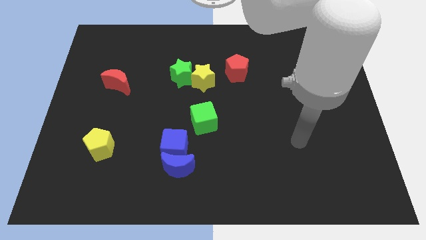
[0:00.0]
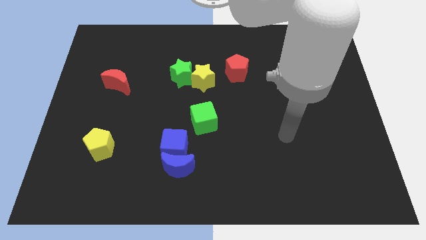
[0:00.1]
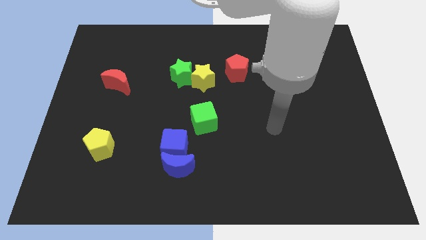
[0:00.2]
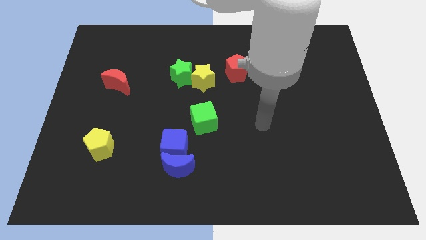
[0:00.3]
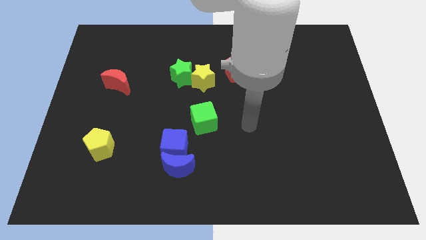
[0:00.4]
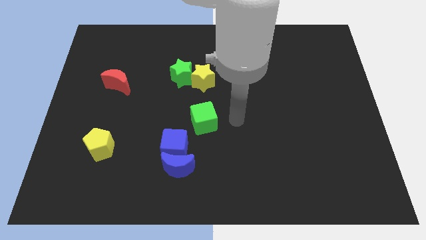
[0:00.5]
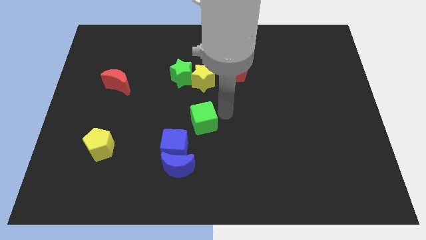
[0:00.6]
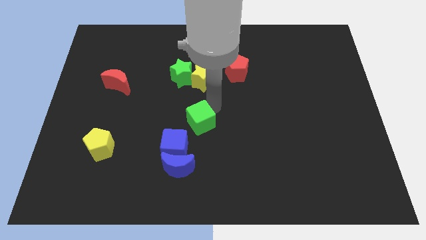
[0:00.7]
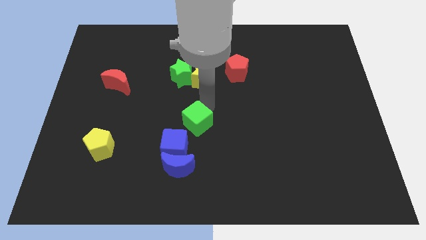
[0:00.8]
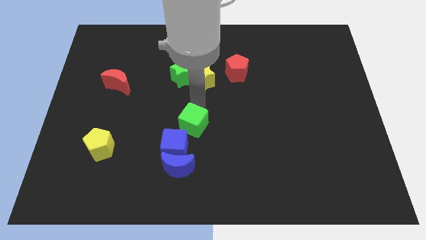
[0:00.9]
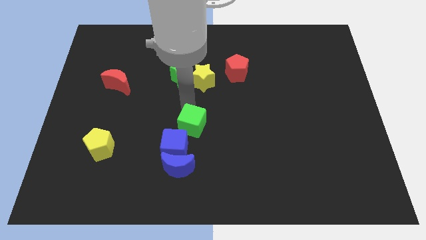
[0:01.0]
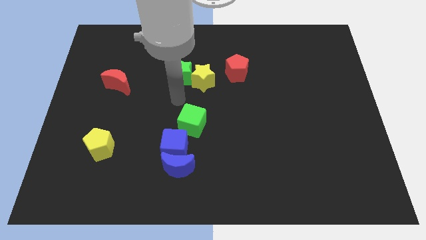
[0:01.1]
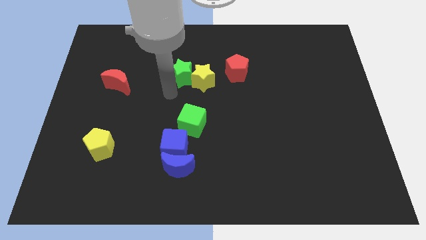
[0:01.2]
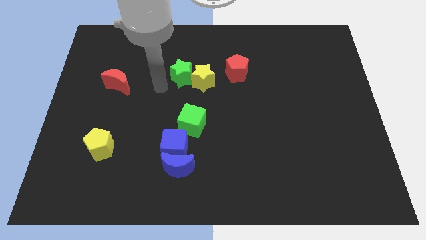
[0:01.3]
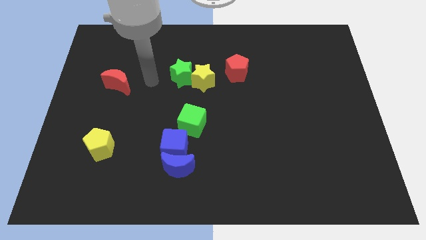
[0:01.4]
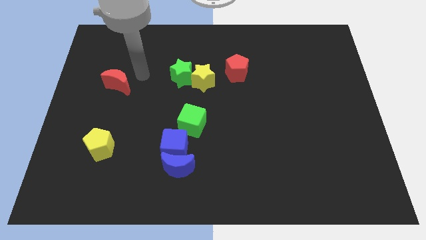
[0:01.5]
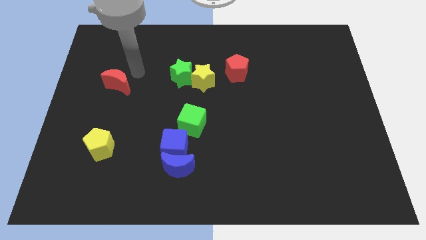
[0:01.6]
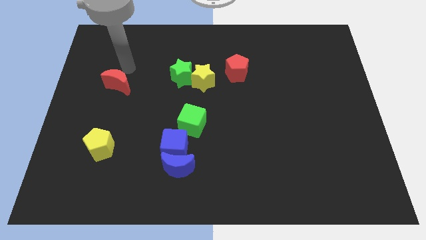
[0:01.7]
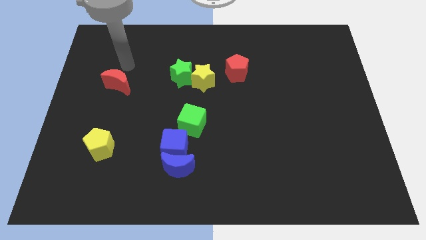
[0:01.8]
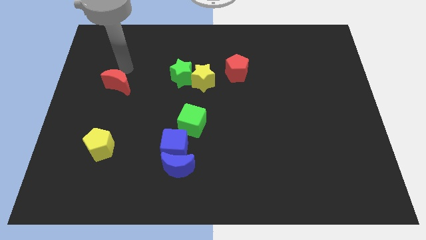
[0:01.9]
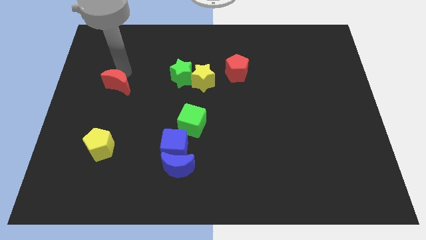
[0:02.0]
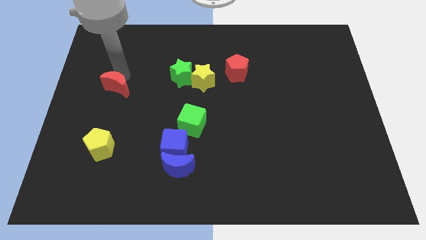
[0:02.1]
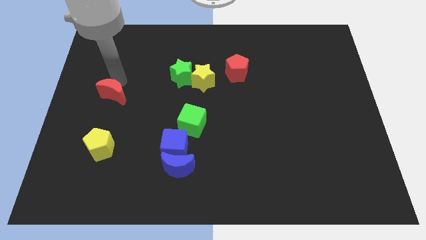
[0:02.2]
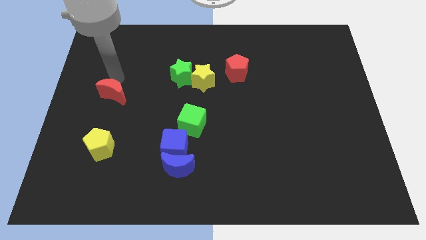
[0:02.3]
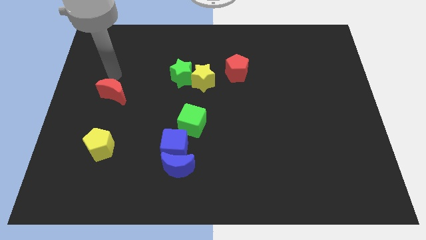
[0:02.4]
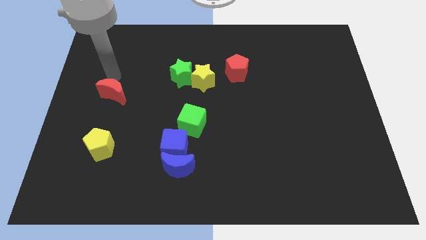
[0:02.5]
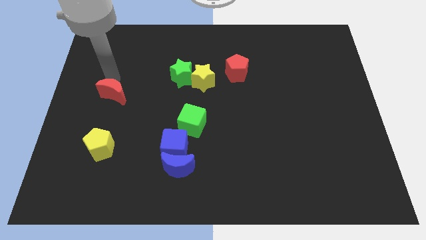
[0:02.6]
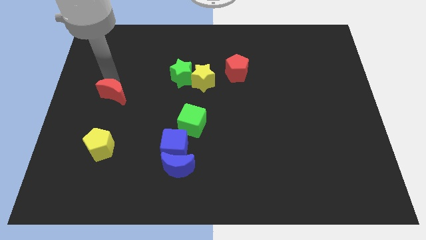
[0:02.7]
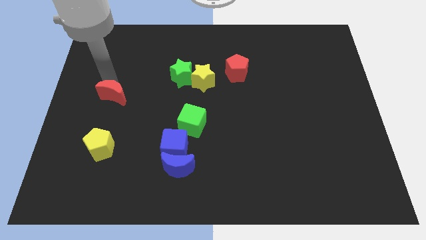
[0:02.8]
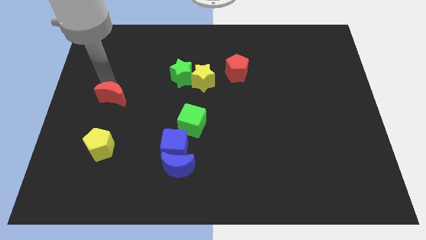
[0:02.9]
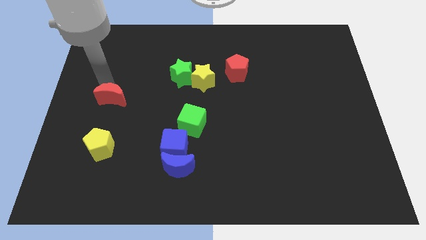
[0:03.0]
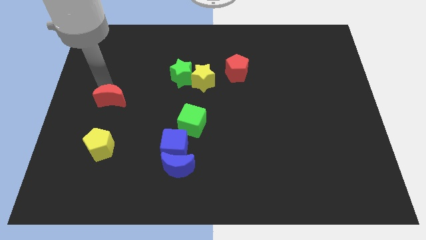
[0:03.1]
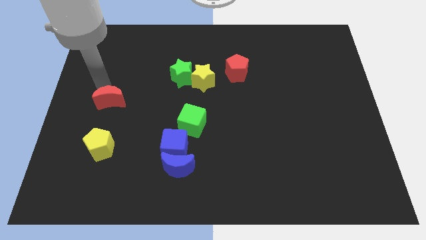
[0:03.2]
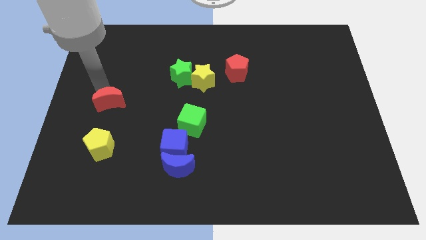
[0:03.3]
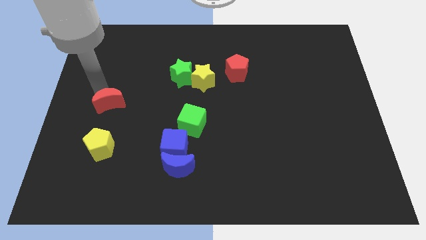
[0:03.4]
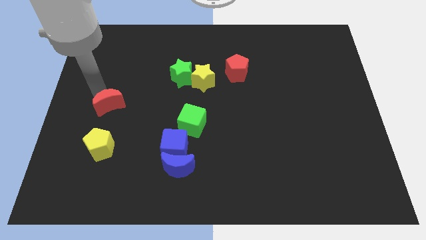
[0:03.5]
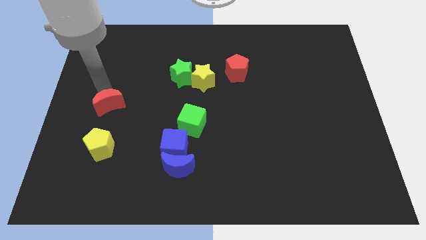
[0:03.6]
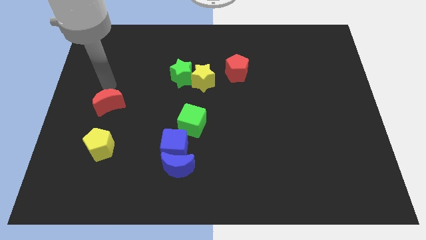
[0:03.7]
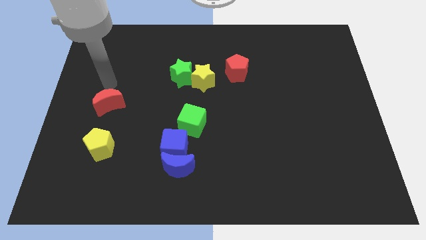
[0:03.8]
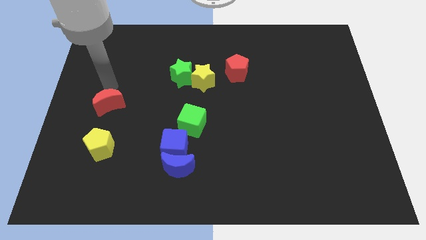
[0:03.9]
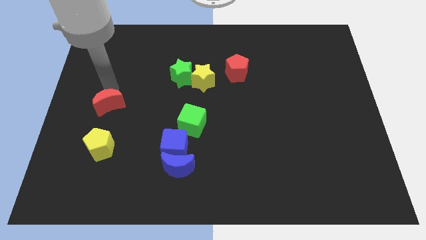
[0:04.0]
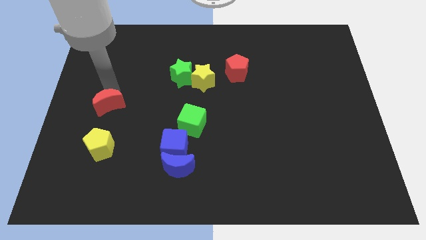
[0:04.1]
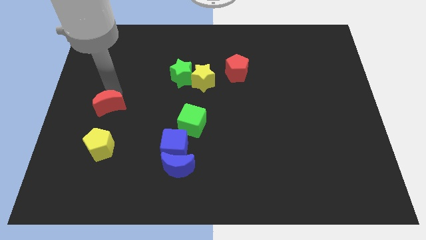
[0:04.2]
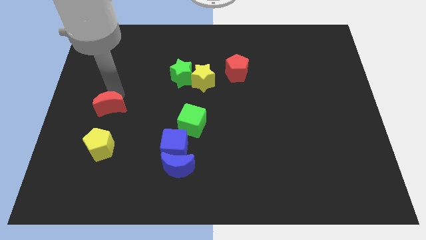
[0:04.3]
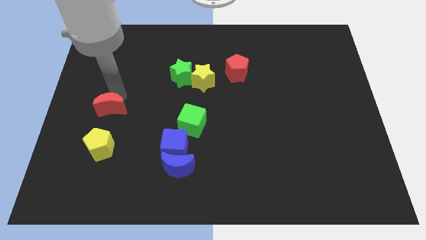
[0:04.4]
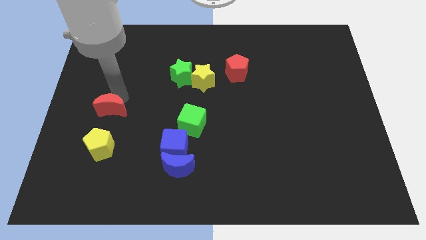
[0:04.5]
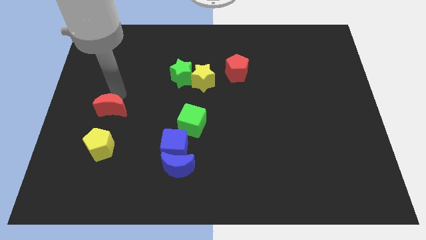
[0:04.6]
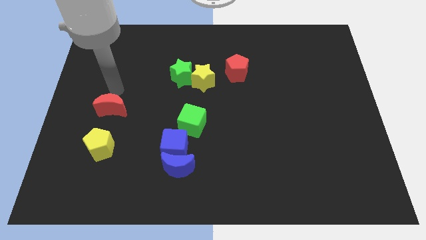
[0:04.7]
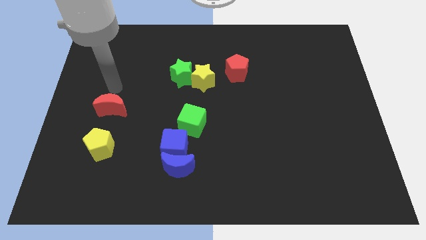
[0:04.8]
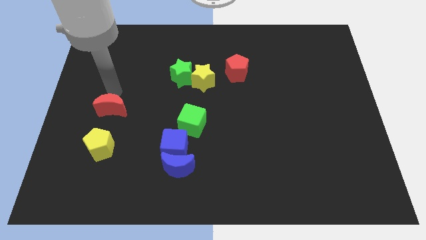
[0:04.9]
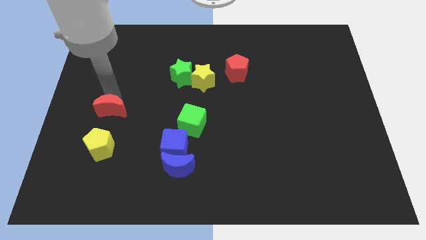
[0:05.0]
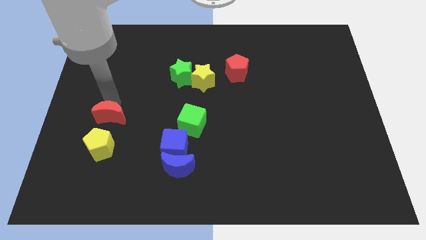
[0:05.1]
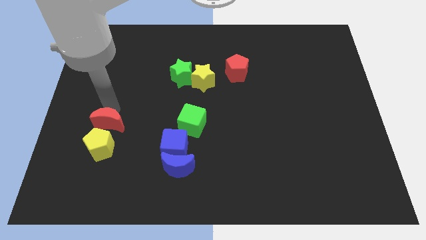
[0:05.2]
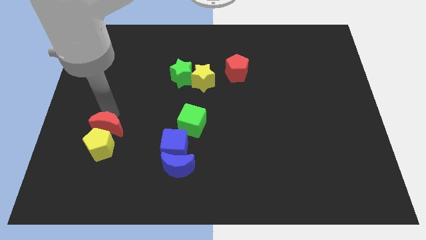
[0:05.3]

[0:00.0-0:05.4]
move the red moon towards the yellow pentagon

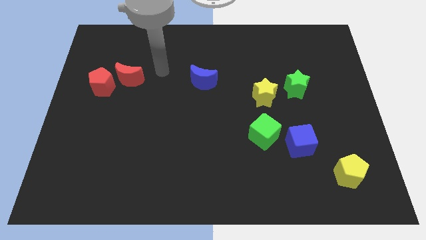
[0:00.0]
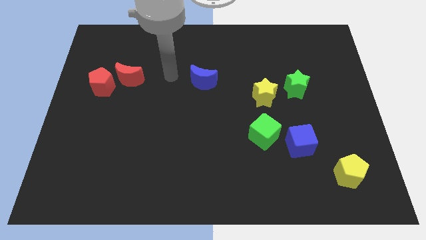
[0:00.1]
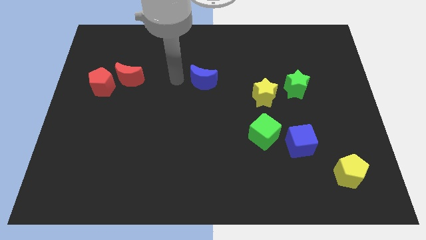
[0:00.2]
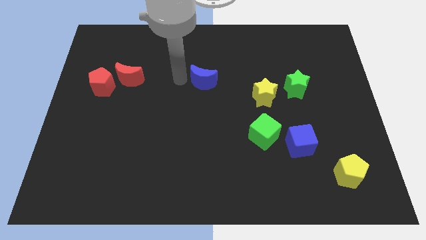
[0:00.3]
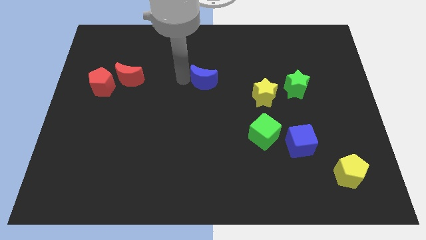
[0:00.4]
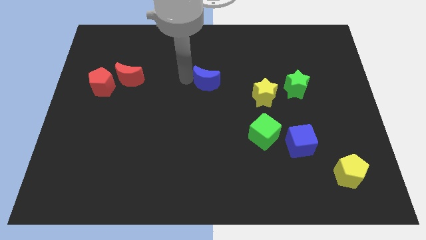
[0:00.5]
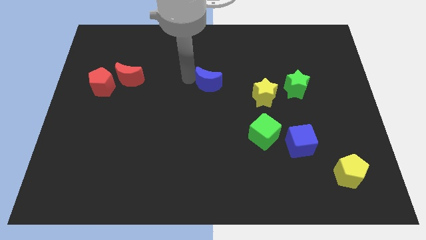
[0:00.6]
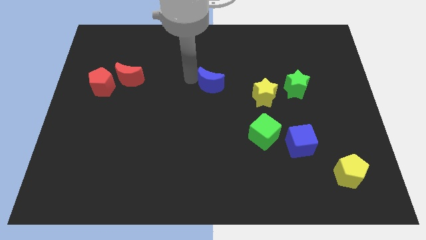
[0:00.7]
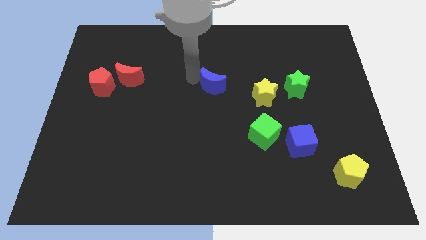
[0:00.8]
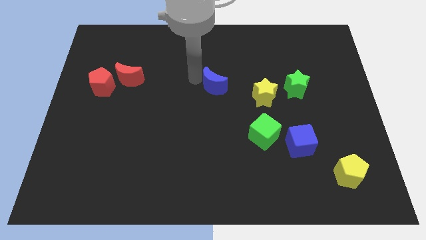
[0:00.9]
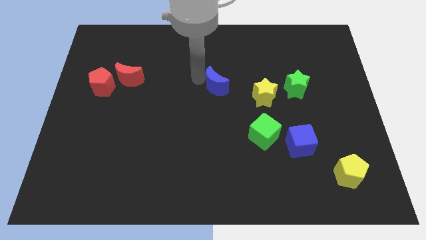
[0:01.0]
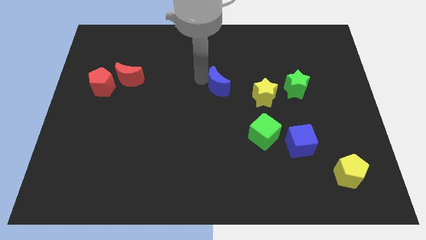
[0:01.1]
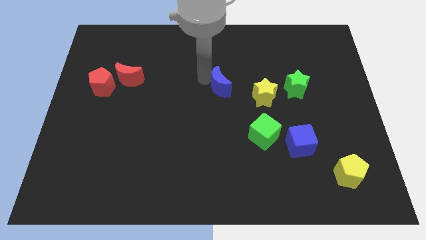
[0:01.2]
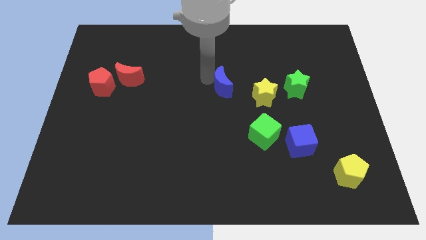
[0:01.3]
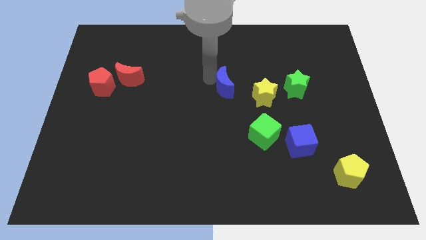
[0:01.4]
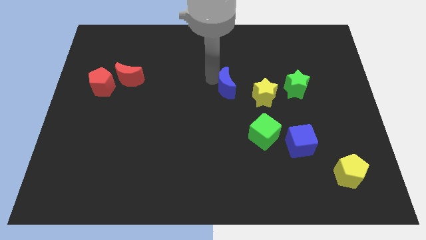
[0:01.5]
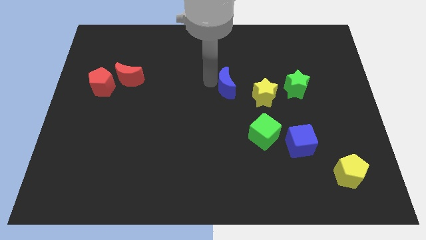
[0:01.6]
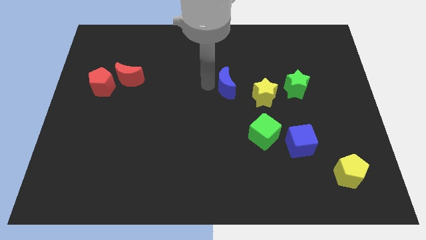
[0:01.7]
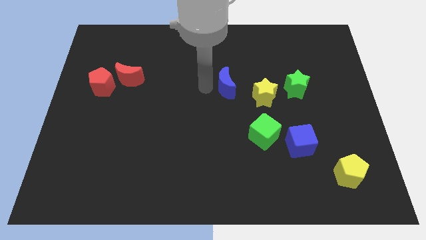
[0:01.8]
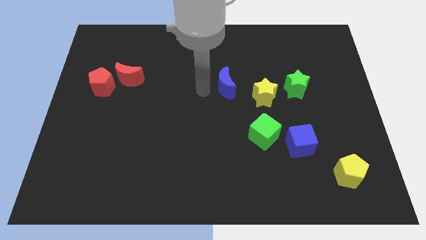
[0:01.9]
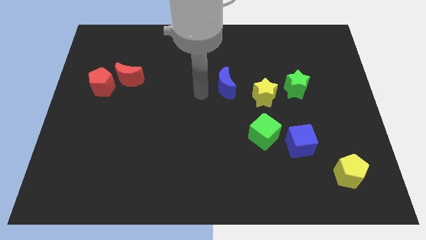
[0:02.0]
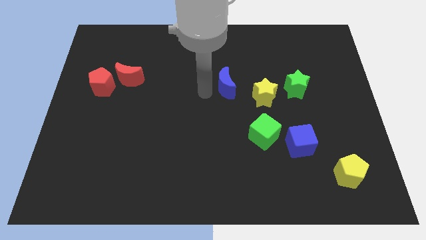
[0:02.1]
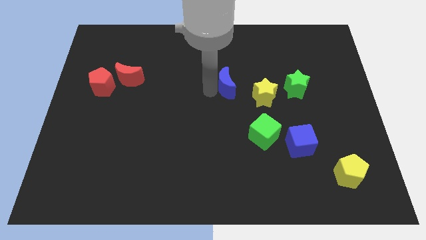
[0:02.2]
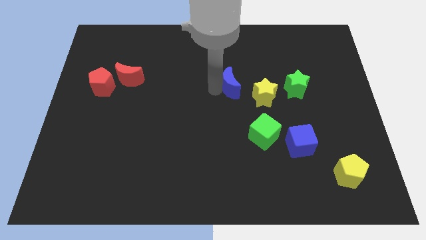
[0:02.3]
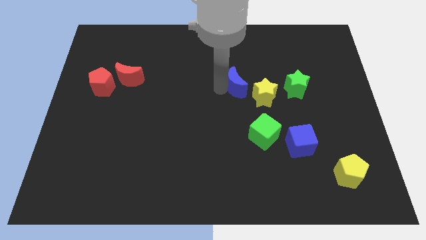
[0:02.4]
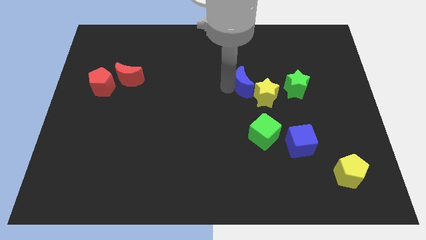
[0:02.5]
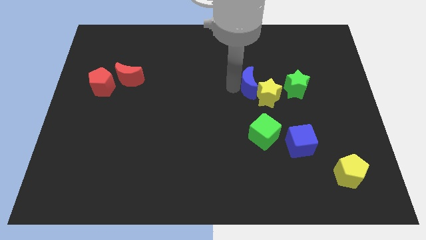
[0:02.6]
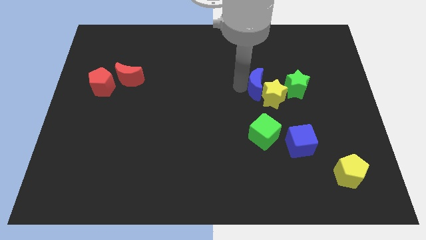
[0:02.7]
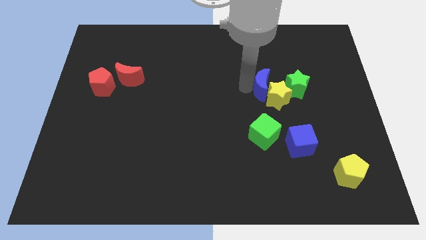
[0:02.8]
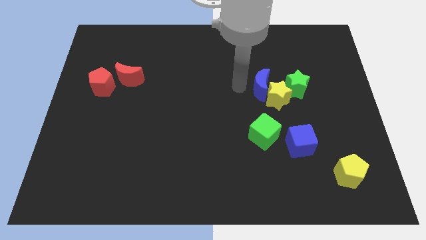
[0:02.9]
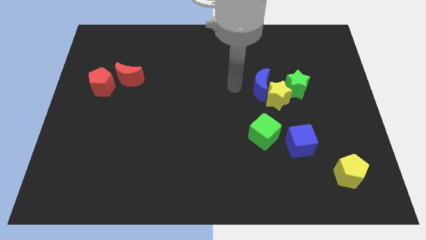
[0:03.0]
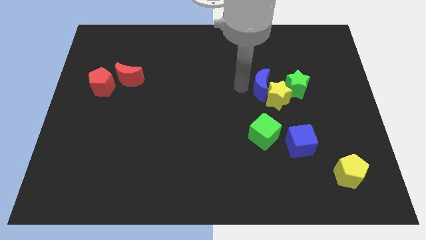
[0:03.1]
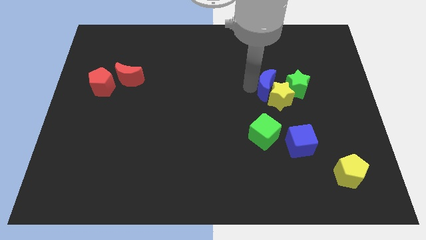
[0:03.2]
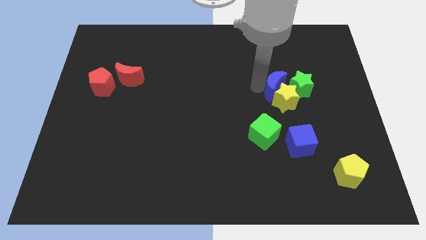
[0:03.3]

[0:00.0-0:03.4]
move the blue moon towards the green star
